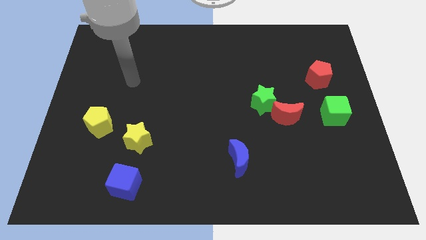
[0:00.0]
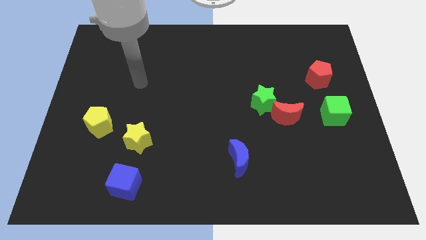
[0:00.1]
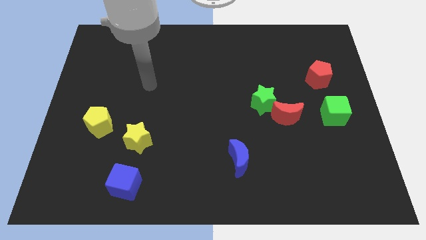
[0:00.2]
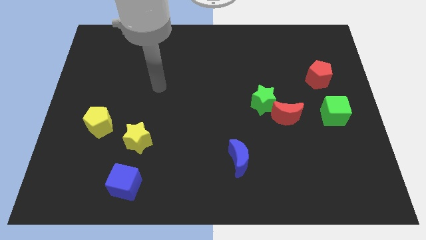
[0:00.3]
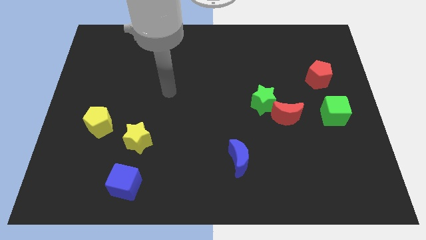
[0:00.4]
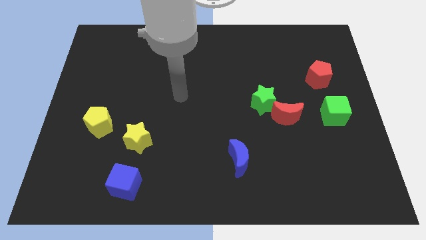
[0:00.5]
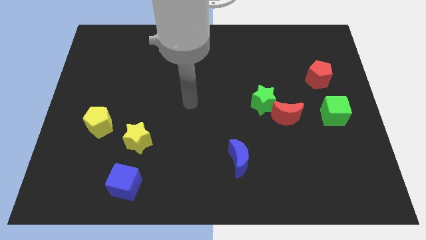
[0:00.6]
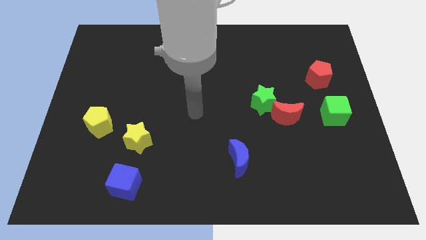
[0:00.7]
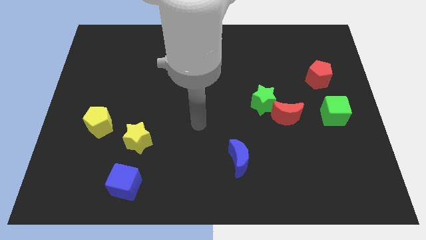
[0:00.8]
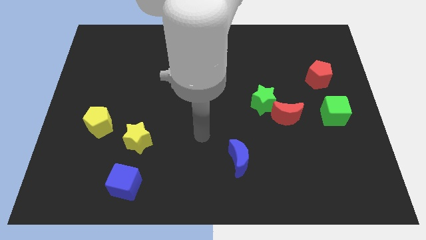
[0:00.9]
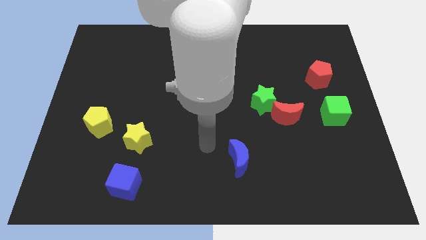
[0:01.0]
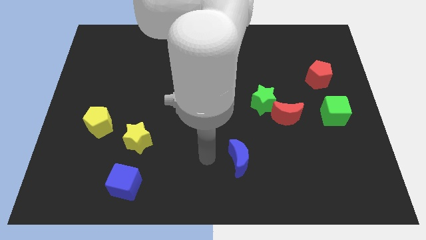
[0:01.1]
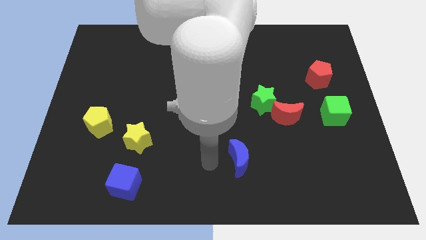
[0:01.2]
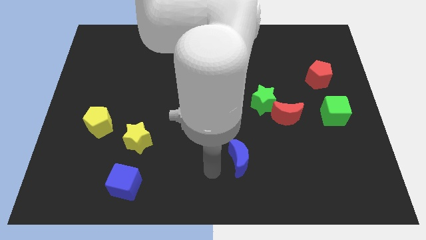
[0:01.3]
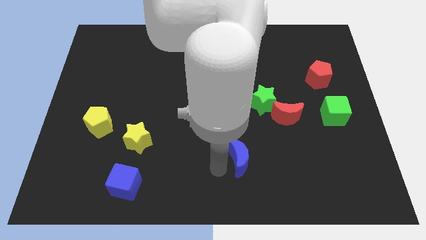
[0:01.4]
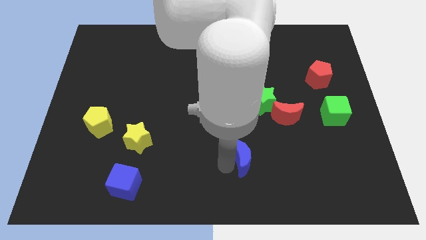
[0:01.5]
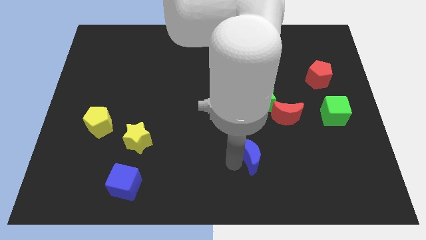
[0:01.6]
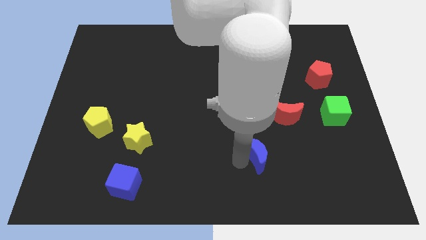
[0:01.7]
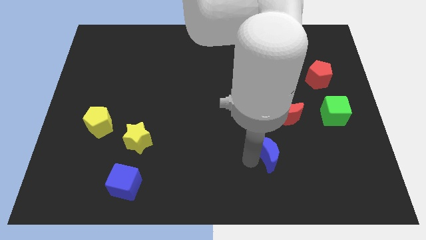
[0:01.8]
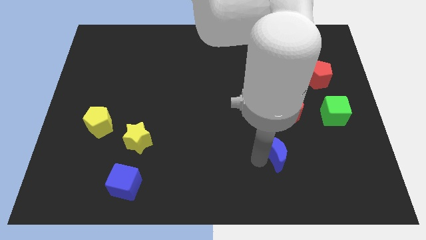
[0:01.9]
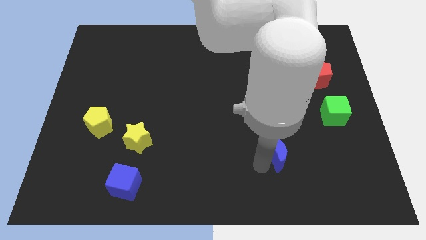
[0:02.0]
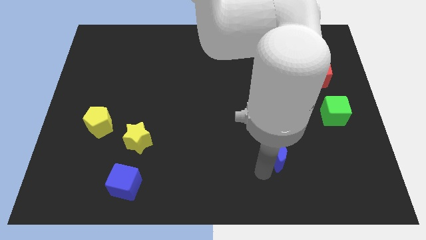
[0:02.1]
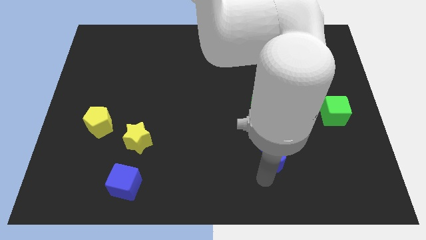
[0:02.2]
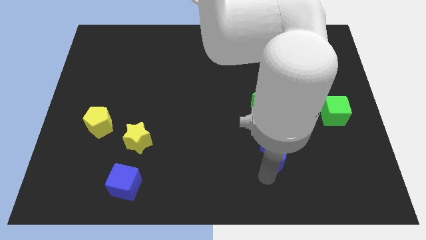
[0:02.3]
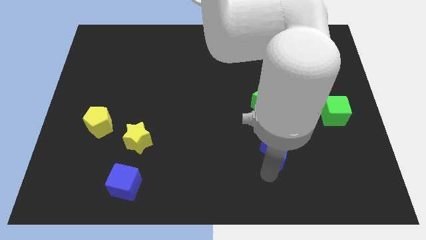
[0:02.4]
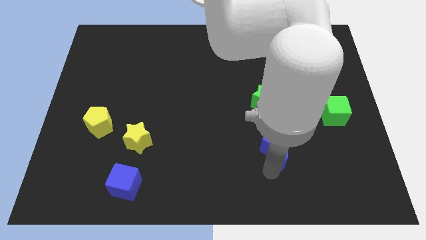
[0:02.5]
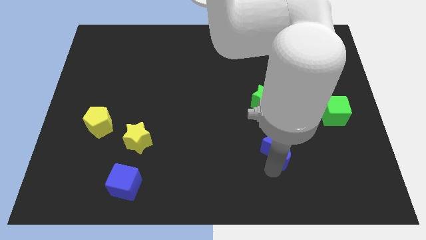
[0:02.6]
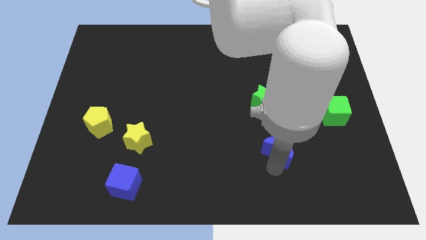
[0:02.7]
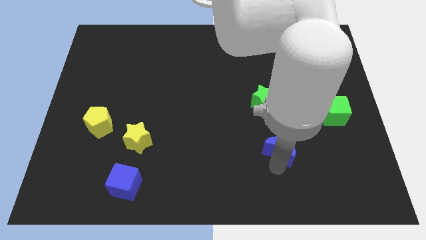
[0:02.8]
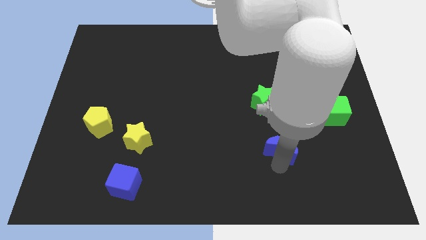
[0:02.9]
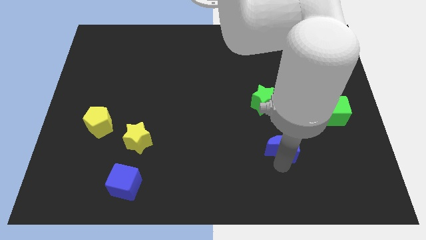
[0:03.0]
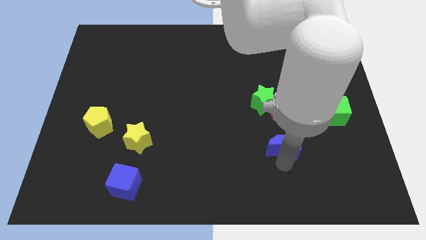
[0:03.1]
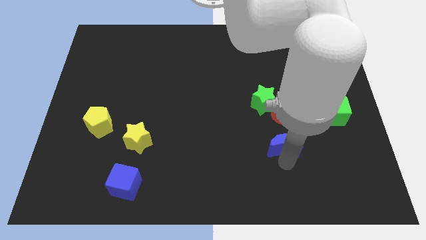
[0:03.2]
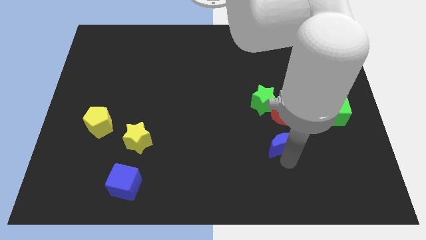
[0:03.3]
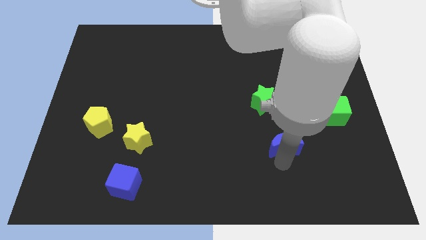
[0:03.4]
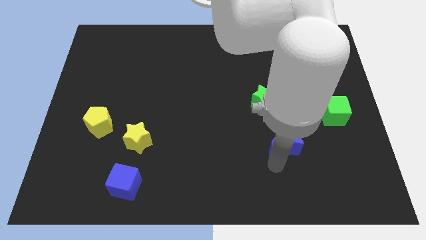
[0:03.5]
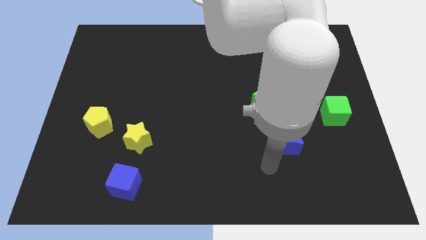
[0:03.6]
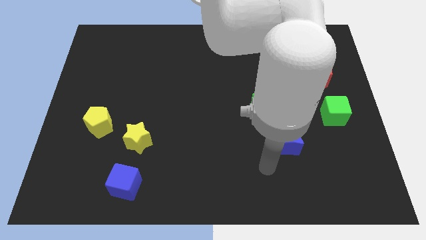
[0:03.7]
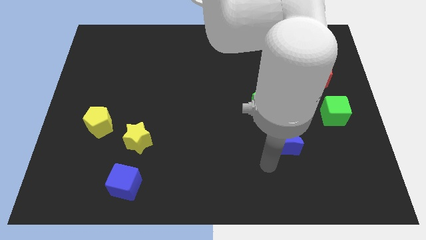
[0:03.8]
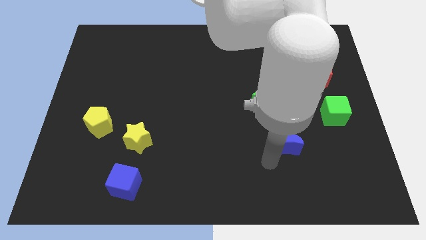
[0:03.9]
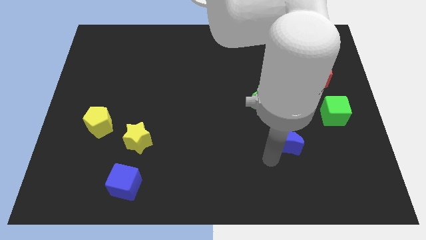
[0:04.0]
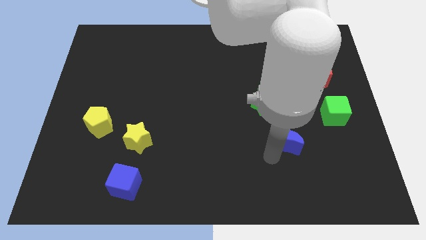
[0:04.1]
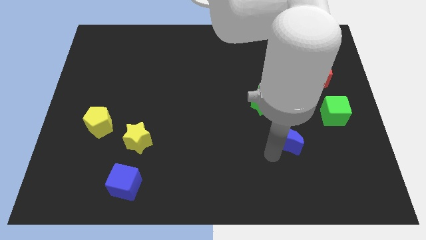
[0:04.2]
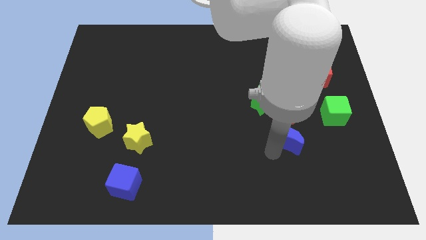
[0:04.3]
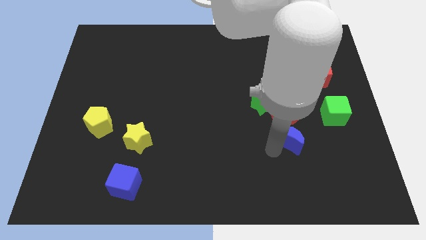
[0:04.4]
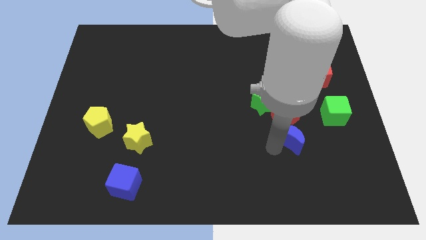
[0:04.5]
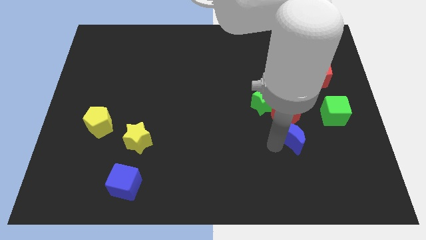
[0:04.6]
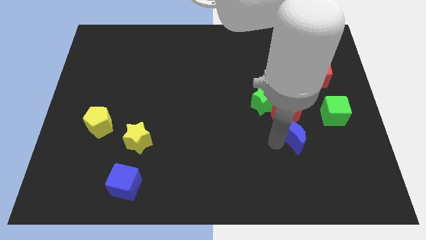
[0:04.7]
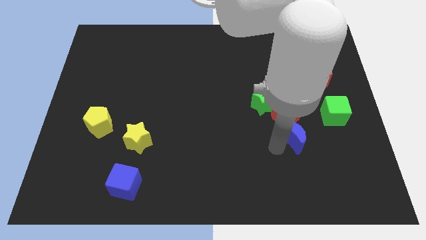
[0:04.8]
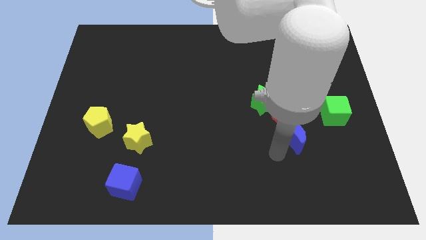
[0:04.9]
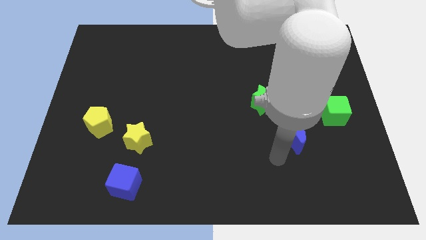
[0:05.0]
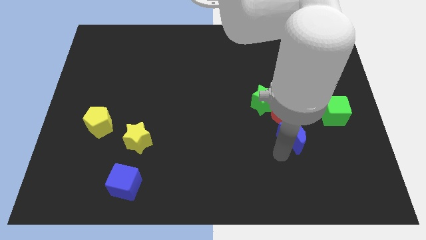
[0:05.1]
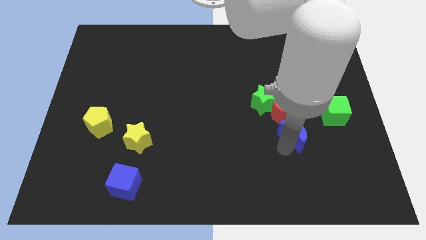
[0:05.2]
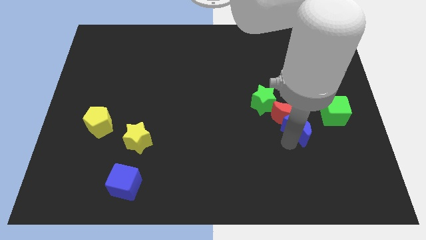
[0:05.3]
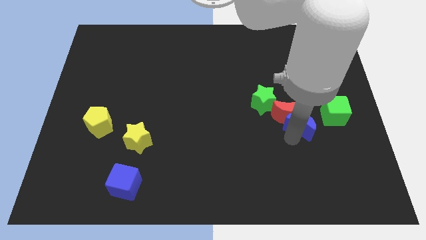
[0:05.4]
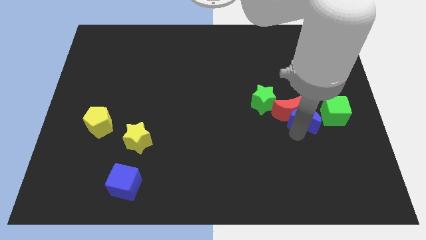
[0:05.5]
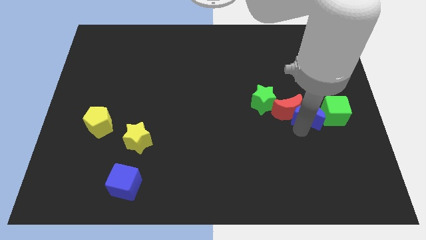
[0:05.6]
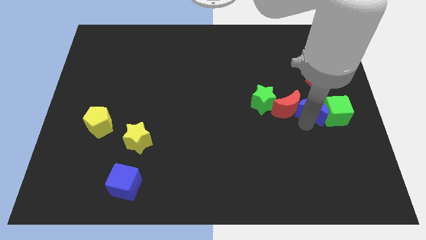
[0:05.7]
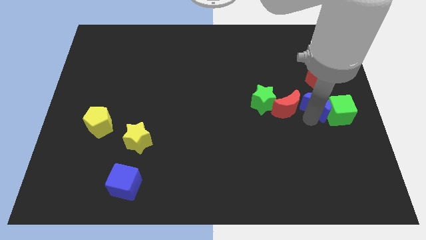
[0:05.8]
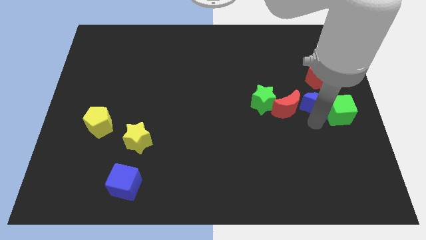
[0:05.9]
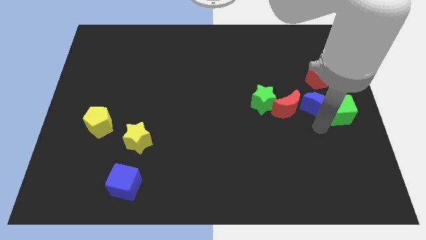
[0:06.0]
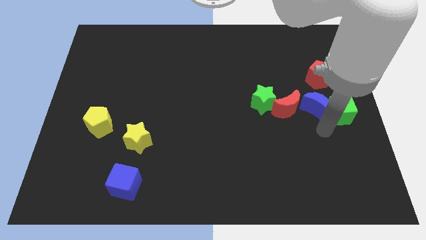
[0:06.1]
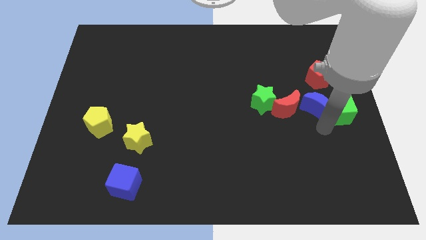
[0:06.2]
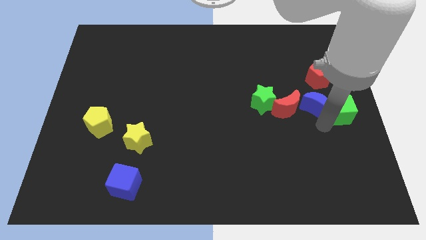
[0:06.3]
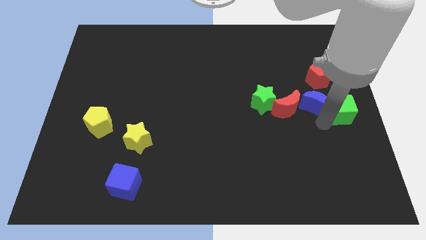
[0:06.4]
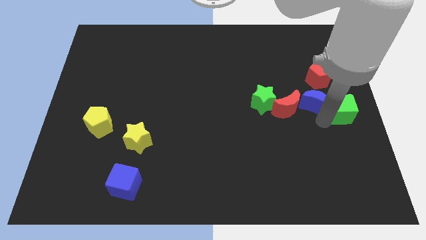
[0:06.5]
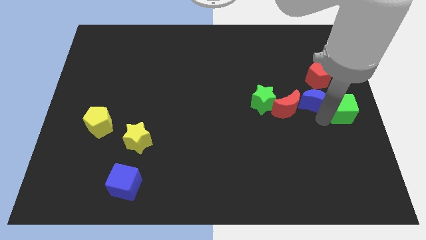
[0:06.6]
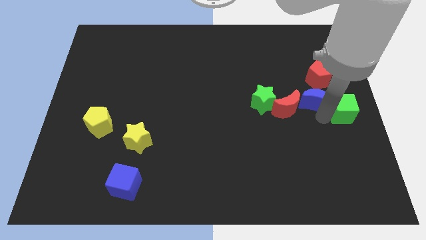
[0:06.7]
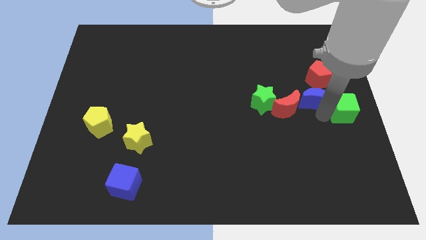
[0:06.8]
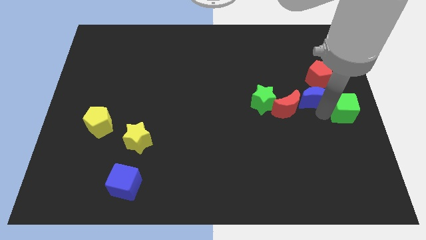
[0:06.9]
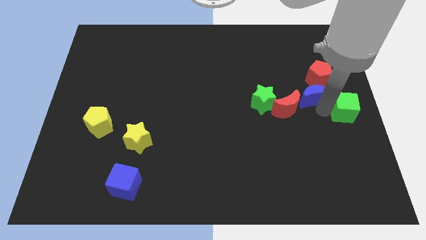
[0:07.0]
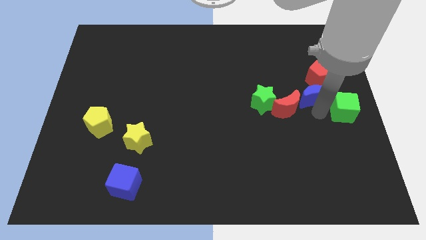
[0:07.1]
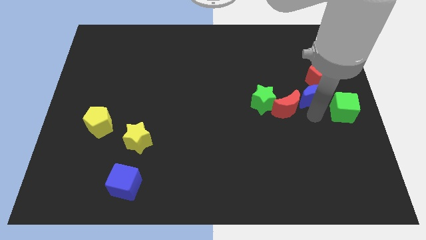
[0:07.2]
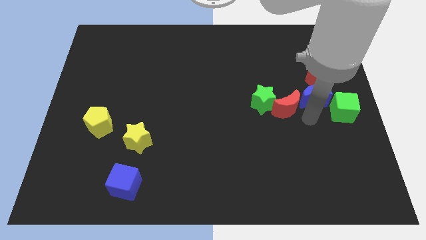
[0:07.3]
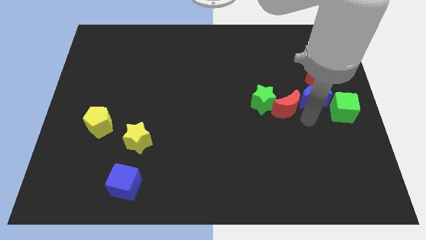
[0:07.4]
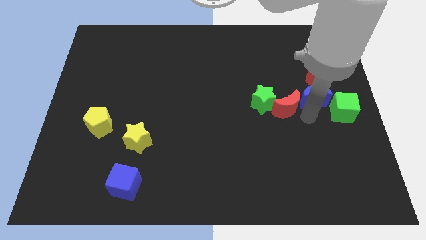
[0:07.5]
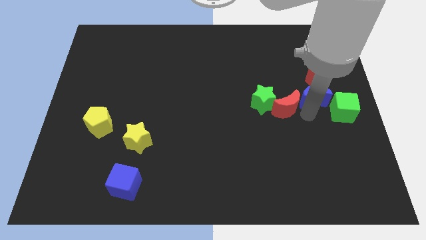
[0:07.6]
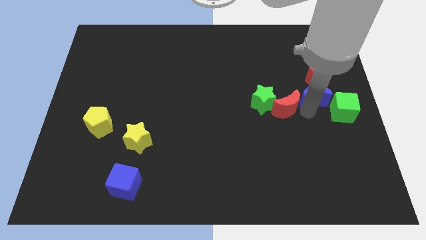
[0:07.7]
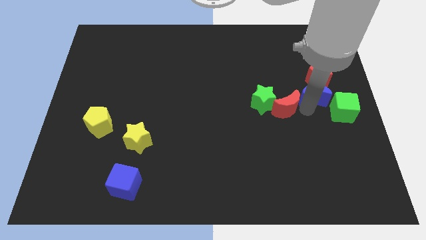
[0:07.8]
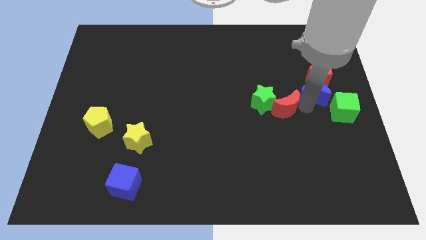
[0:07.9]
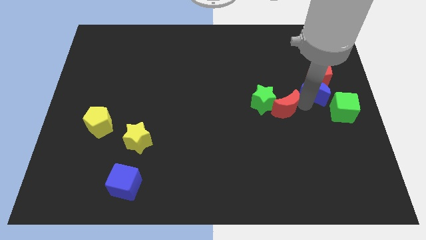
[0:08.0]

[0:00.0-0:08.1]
slide the blue moon to the red pentagon
